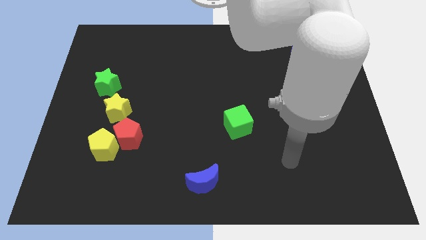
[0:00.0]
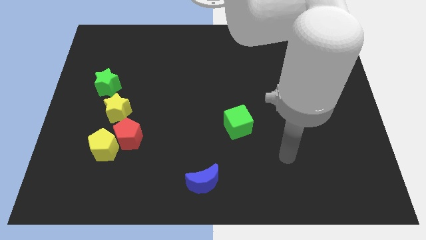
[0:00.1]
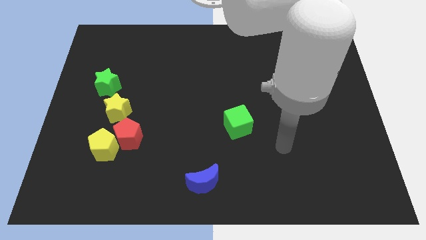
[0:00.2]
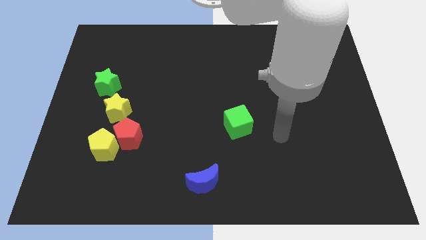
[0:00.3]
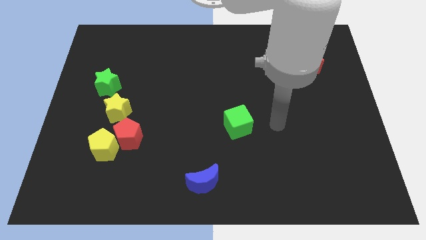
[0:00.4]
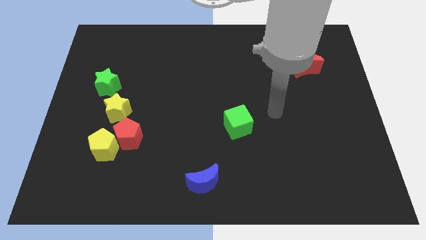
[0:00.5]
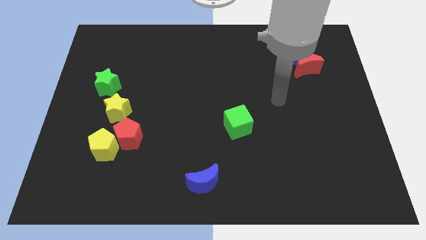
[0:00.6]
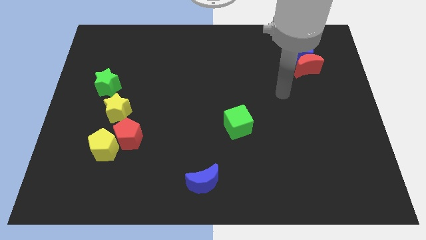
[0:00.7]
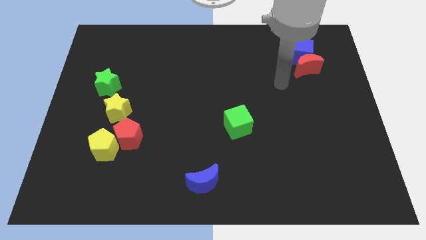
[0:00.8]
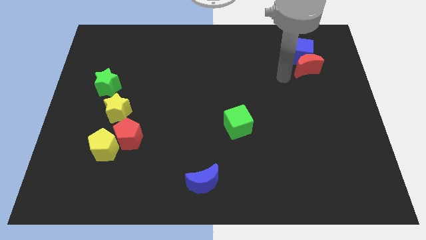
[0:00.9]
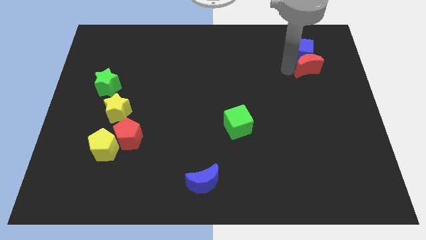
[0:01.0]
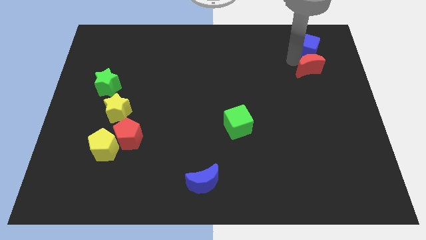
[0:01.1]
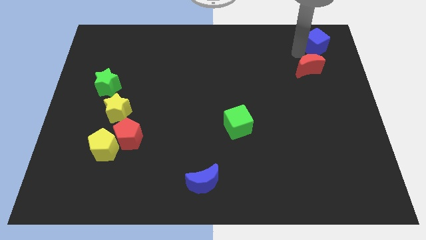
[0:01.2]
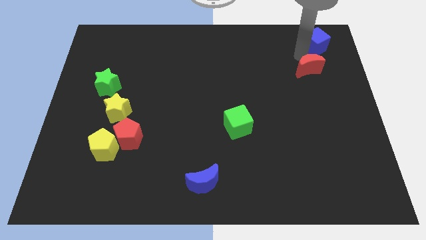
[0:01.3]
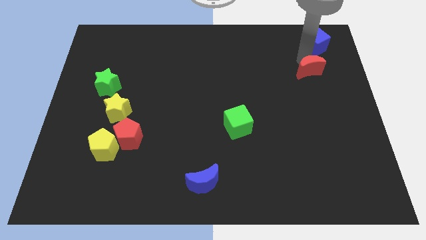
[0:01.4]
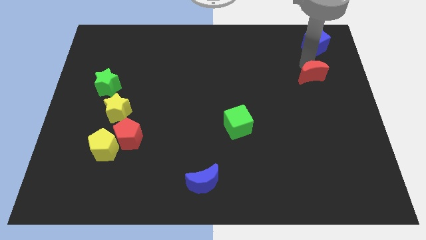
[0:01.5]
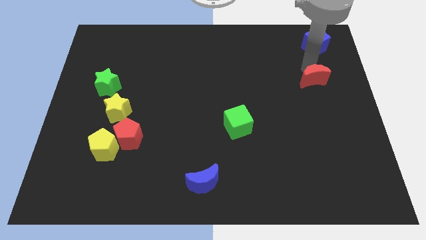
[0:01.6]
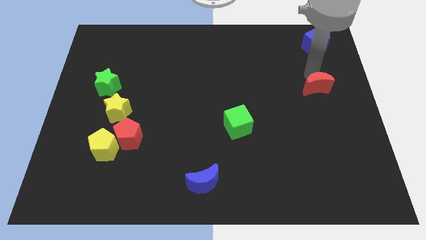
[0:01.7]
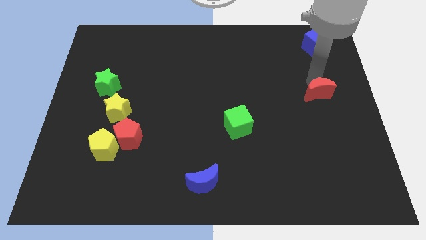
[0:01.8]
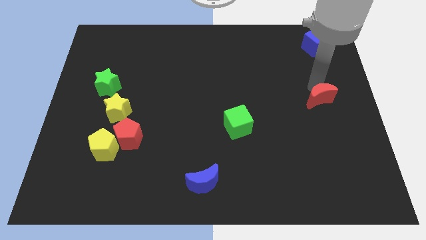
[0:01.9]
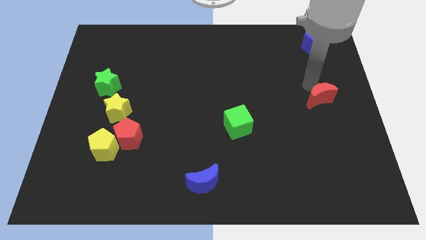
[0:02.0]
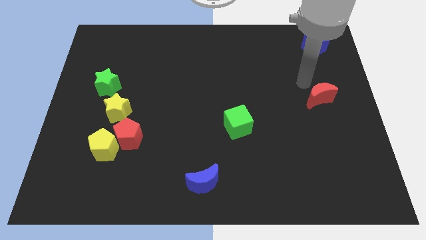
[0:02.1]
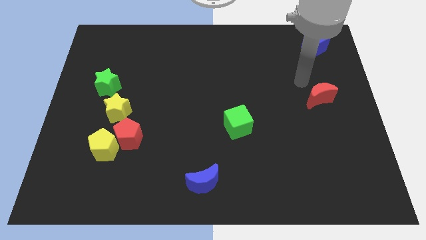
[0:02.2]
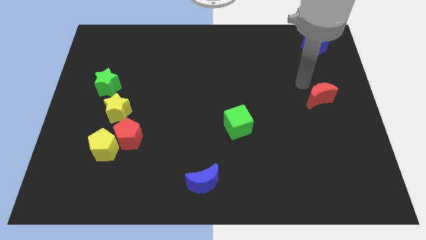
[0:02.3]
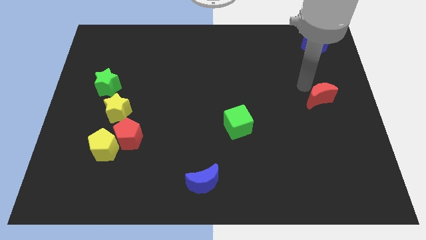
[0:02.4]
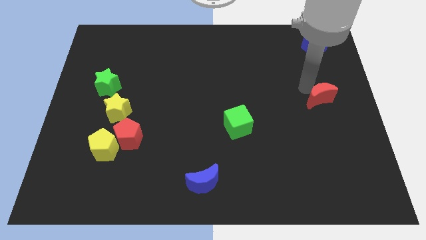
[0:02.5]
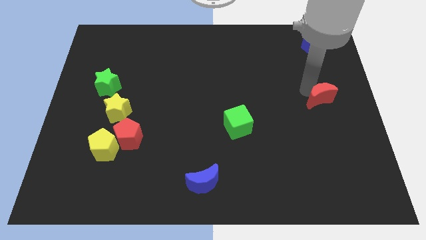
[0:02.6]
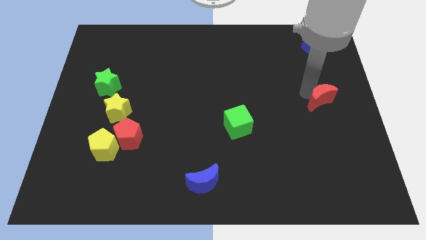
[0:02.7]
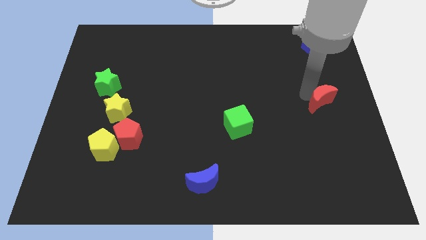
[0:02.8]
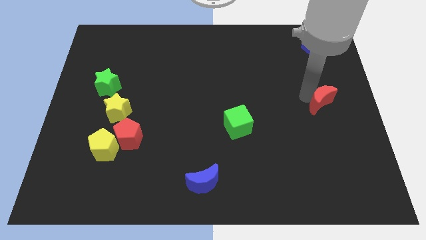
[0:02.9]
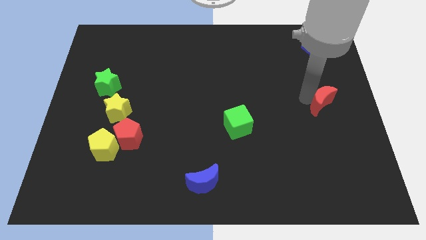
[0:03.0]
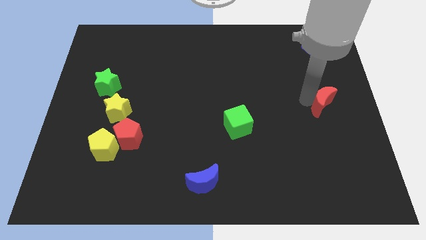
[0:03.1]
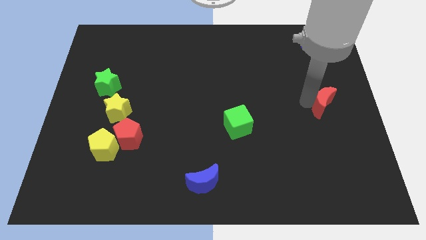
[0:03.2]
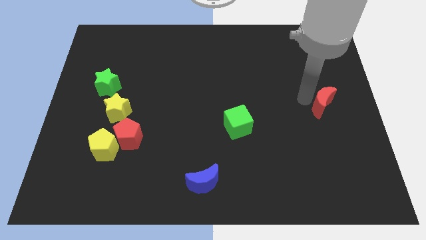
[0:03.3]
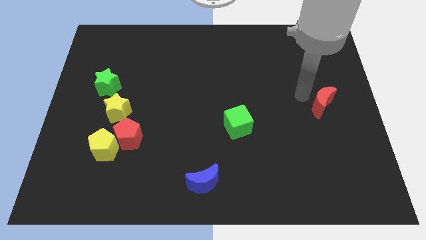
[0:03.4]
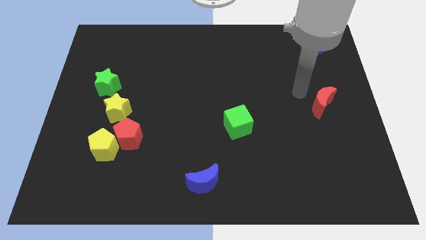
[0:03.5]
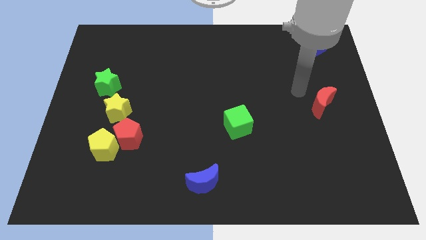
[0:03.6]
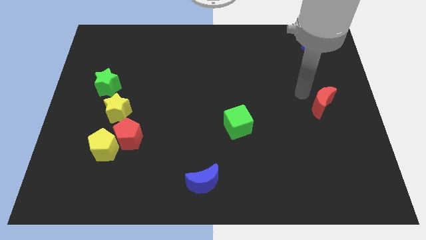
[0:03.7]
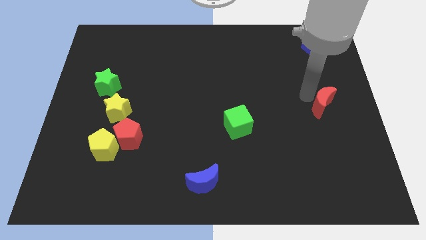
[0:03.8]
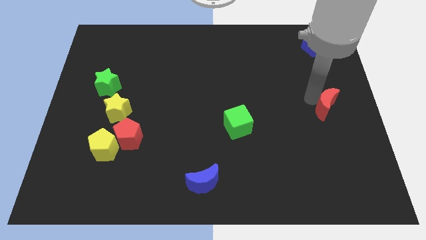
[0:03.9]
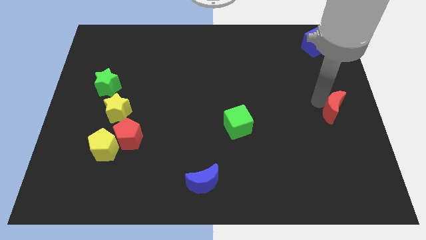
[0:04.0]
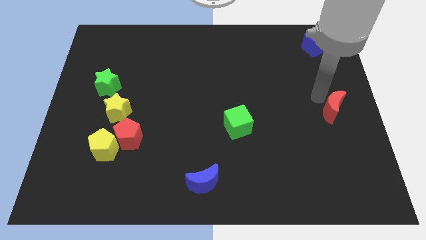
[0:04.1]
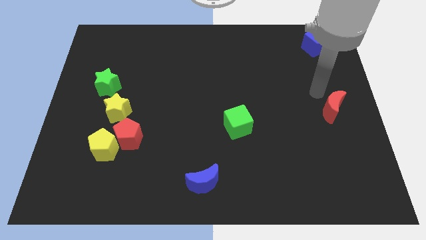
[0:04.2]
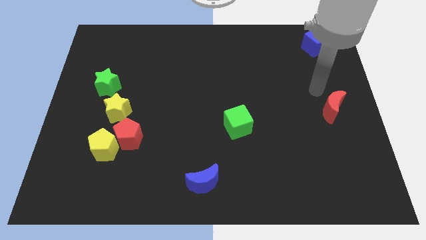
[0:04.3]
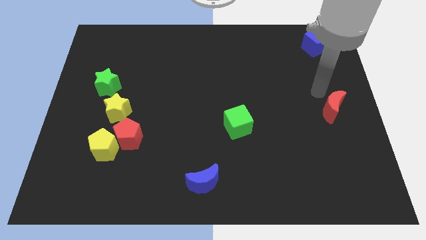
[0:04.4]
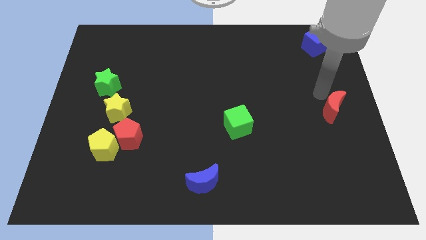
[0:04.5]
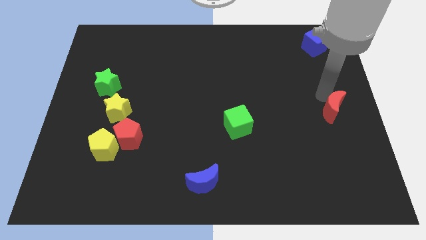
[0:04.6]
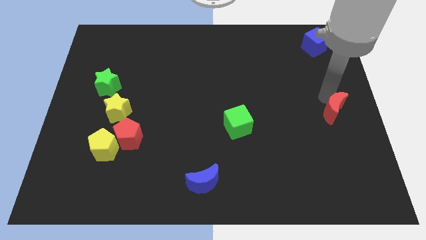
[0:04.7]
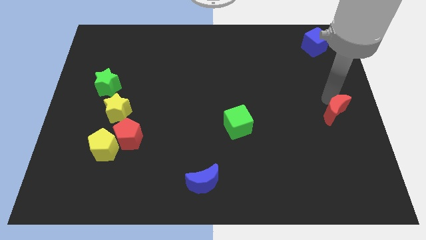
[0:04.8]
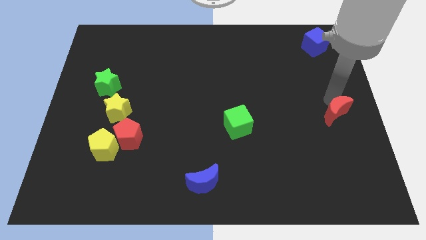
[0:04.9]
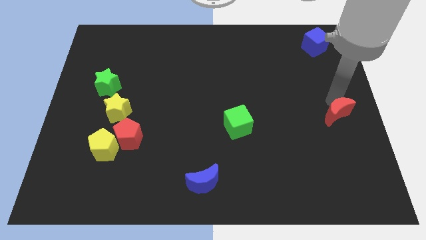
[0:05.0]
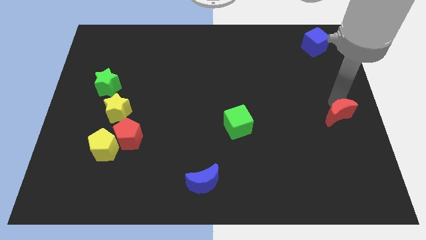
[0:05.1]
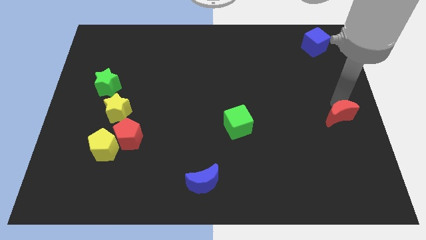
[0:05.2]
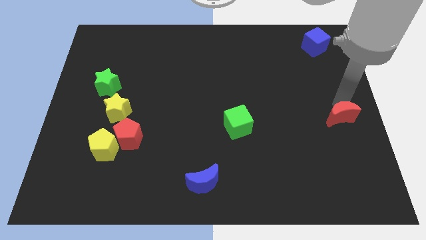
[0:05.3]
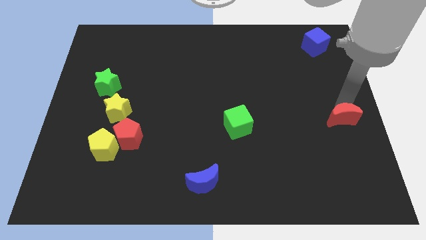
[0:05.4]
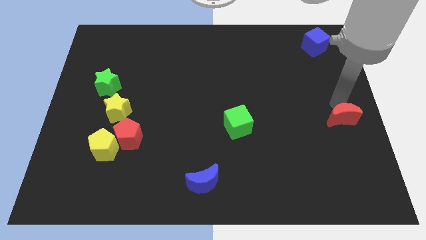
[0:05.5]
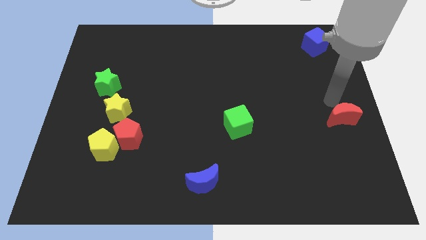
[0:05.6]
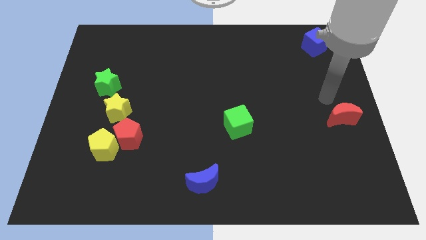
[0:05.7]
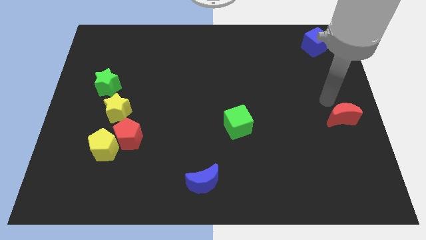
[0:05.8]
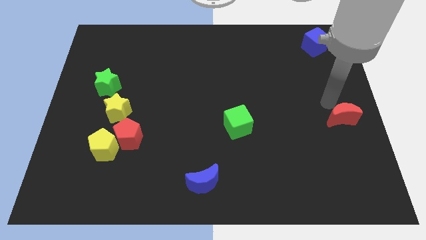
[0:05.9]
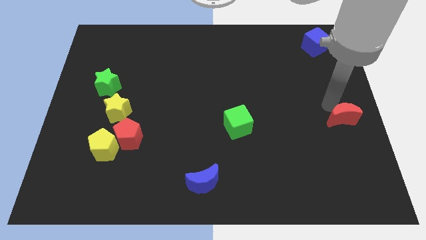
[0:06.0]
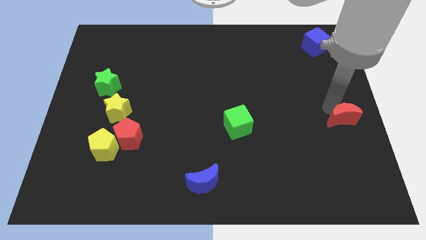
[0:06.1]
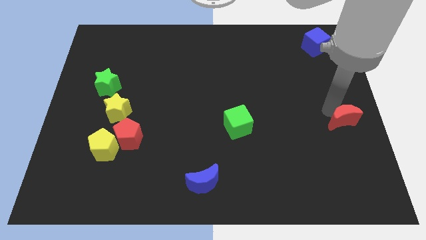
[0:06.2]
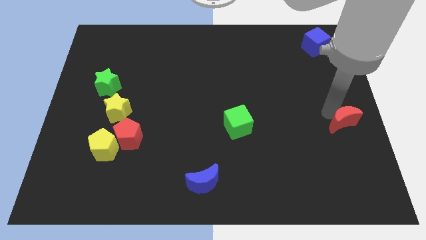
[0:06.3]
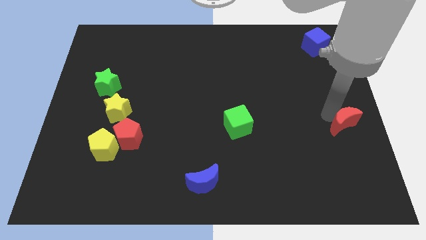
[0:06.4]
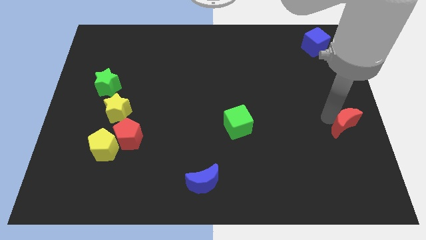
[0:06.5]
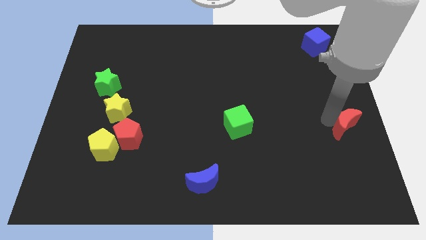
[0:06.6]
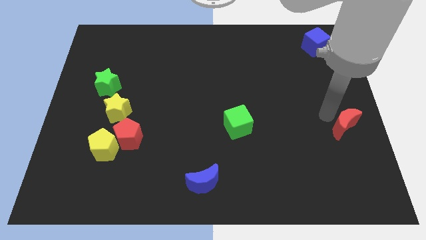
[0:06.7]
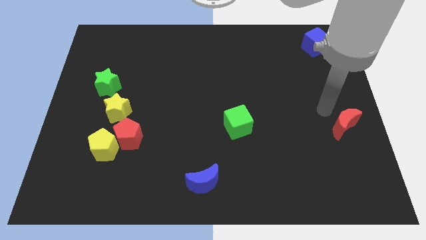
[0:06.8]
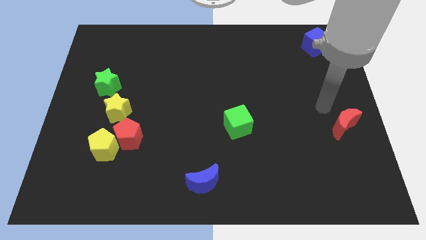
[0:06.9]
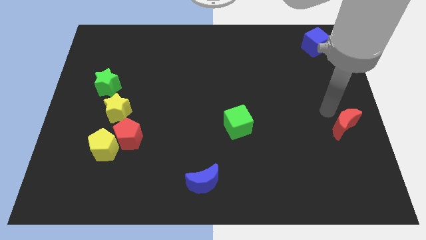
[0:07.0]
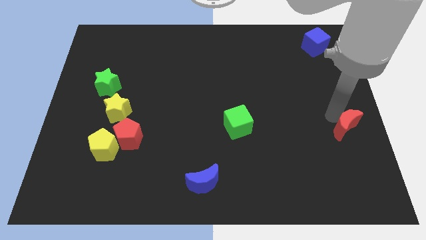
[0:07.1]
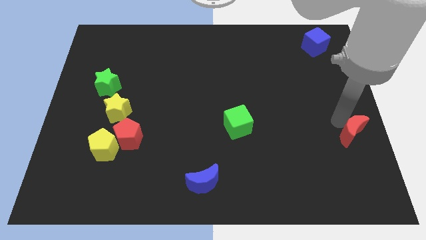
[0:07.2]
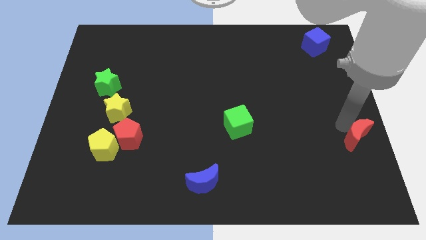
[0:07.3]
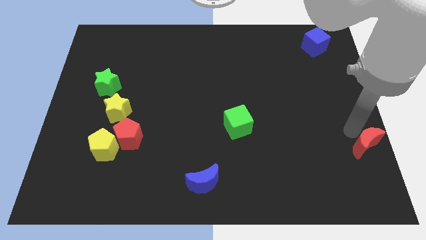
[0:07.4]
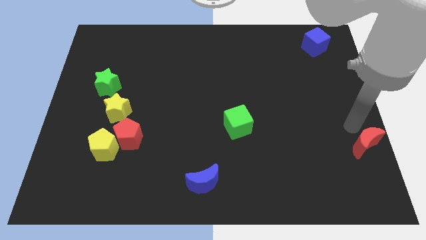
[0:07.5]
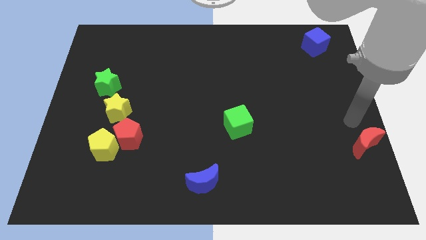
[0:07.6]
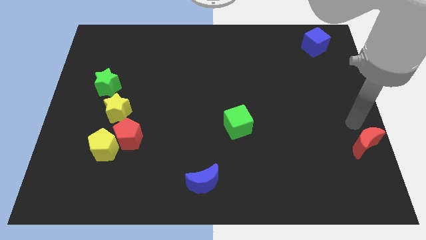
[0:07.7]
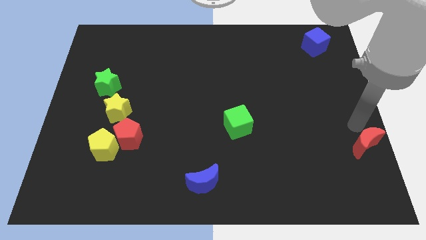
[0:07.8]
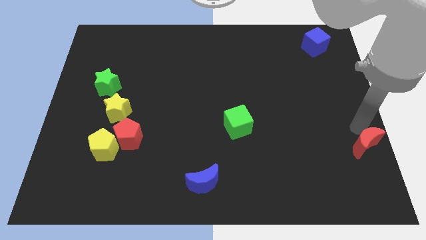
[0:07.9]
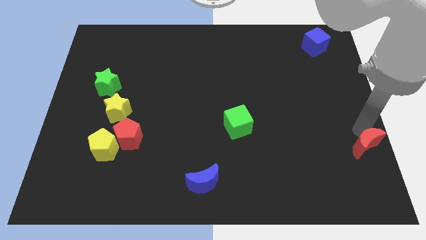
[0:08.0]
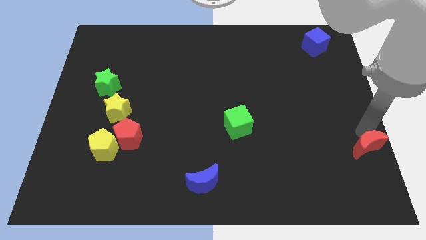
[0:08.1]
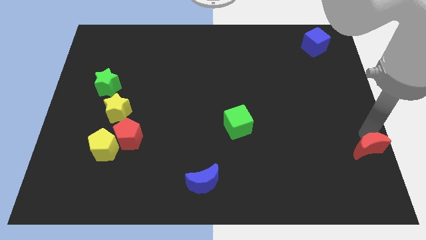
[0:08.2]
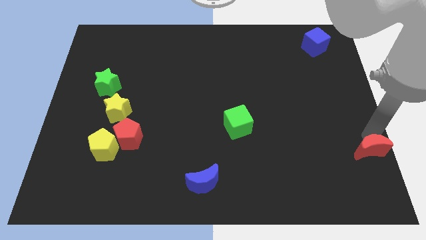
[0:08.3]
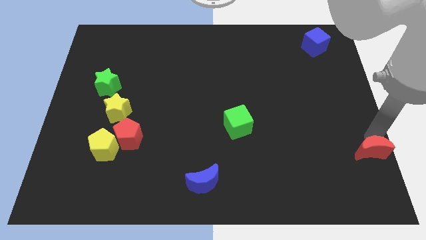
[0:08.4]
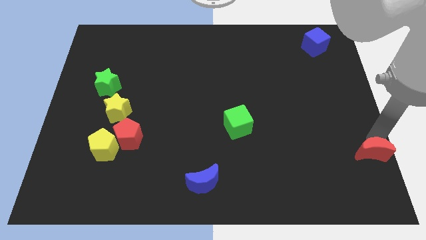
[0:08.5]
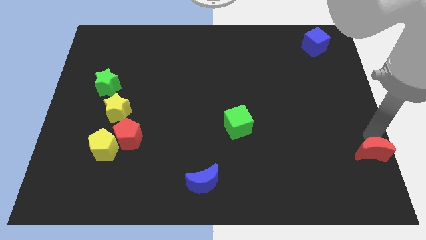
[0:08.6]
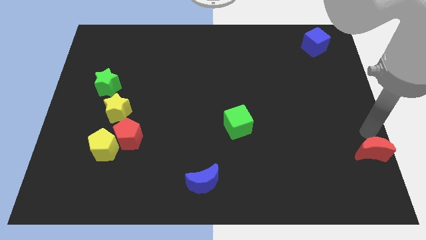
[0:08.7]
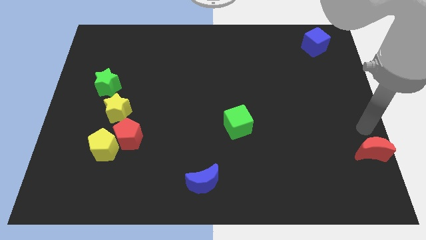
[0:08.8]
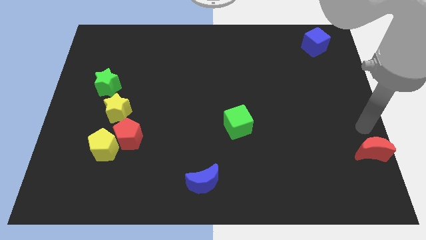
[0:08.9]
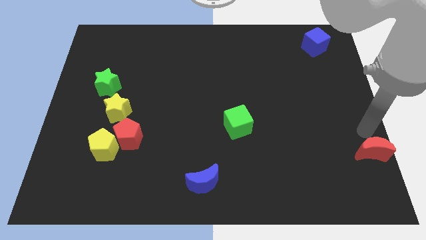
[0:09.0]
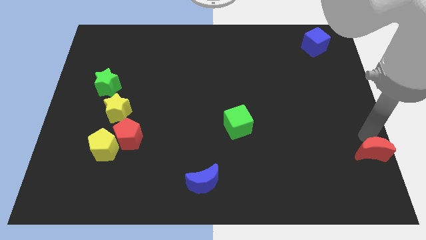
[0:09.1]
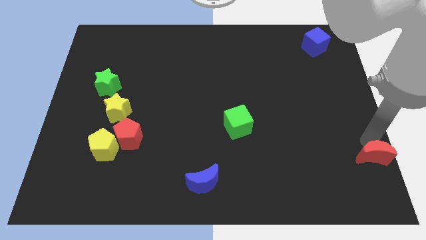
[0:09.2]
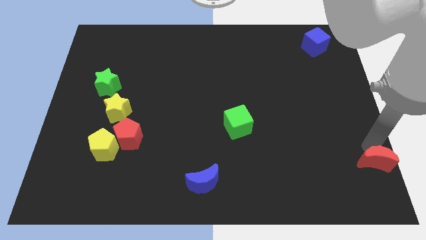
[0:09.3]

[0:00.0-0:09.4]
move the red moon to the bottom right corner
